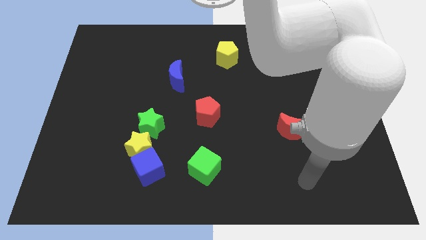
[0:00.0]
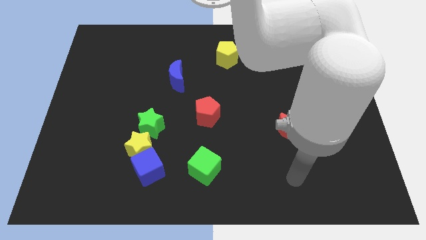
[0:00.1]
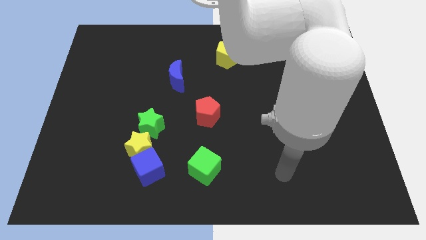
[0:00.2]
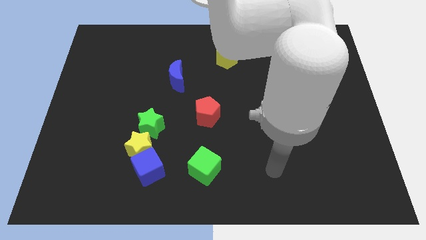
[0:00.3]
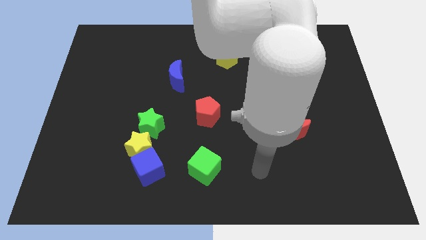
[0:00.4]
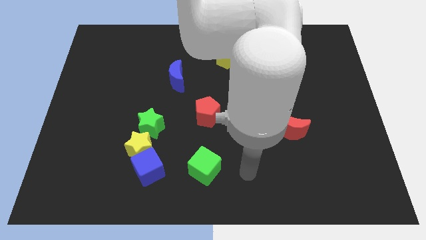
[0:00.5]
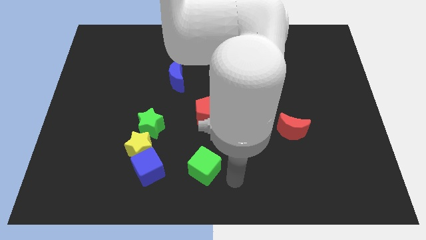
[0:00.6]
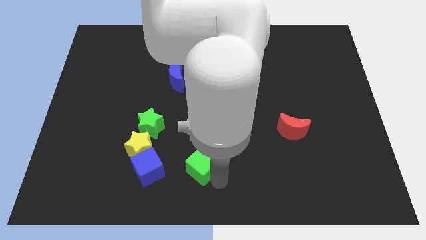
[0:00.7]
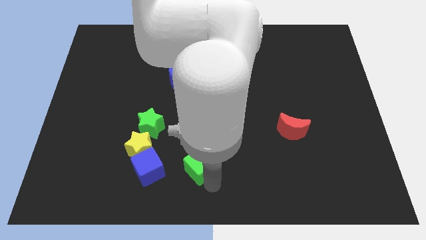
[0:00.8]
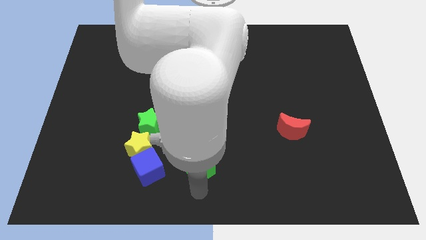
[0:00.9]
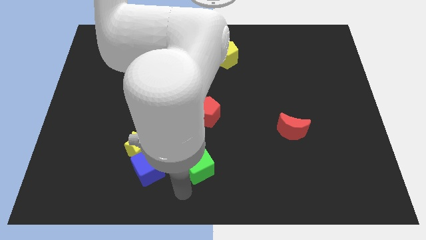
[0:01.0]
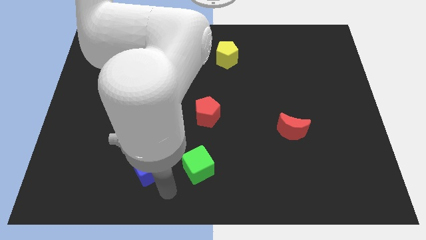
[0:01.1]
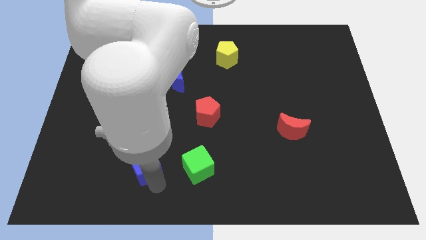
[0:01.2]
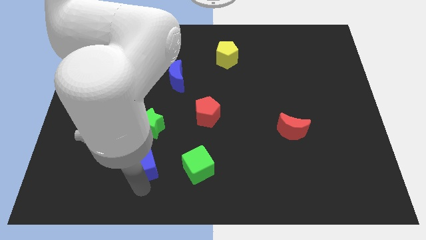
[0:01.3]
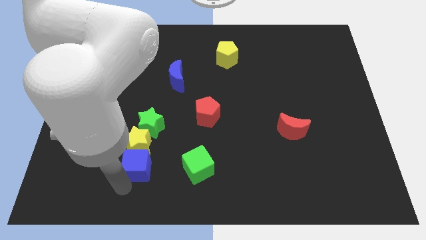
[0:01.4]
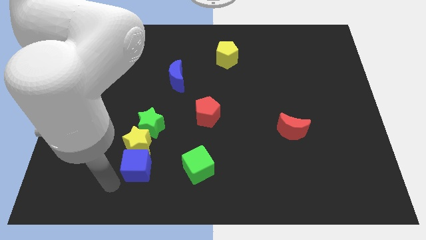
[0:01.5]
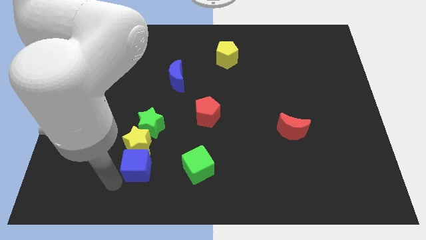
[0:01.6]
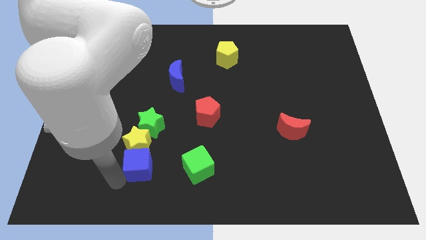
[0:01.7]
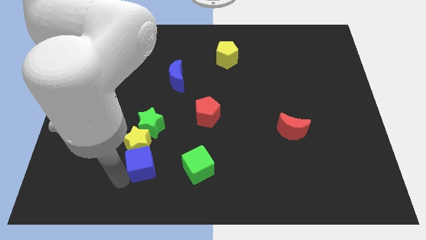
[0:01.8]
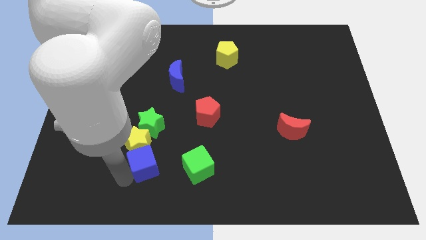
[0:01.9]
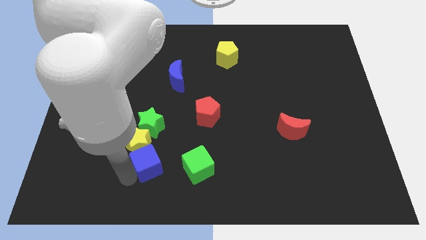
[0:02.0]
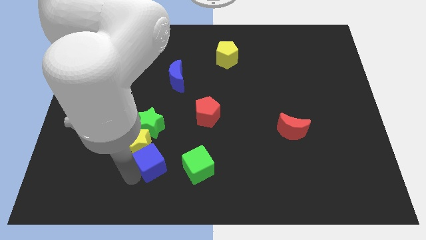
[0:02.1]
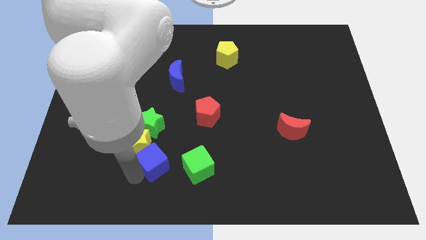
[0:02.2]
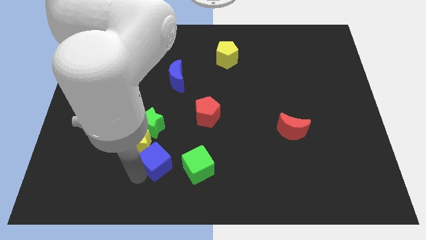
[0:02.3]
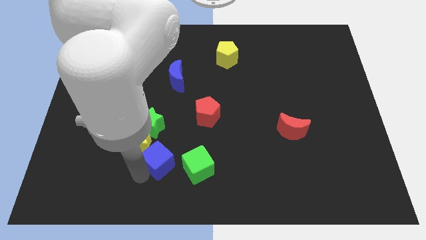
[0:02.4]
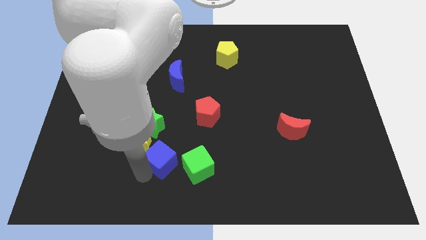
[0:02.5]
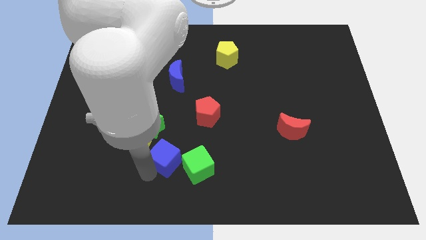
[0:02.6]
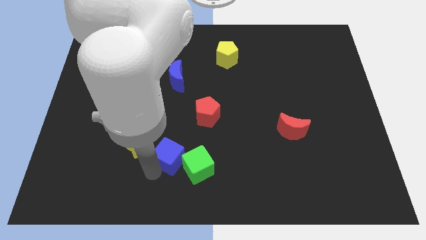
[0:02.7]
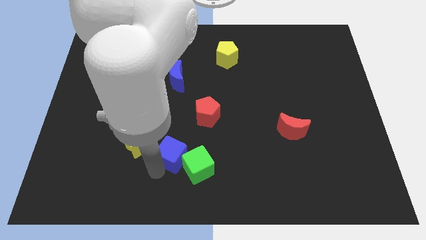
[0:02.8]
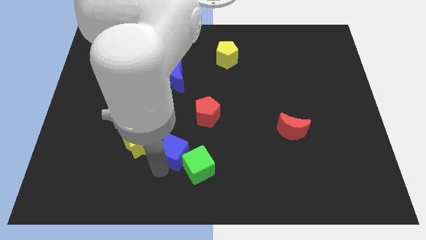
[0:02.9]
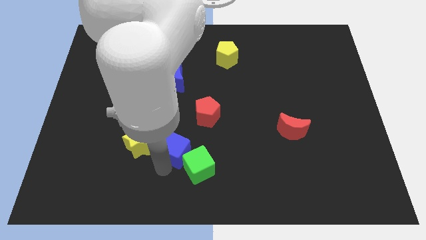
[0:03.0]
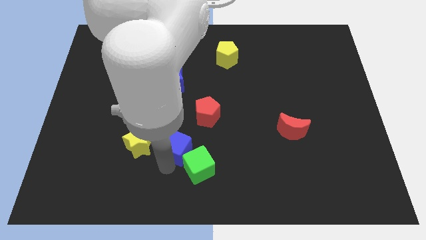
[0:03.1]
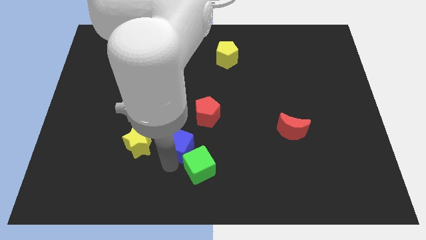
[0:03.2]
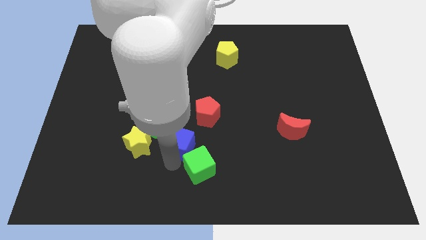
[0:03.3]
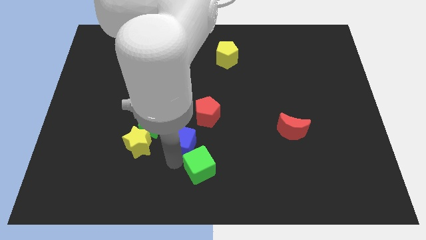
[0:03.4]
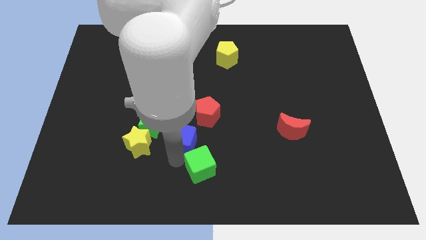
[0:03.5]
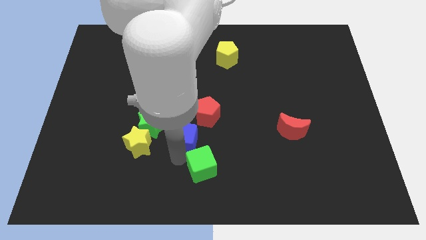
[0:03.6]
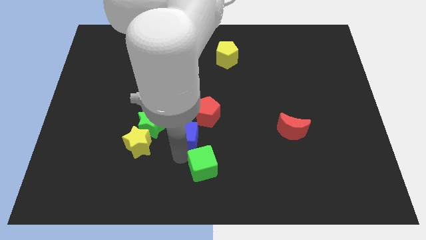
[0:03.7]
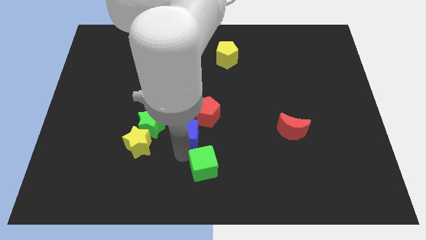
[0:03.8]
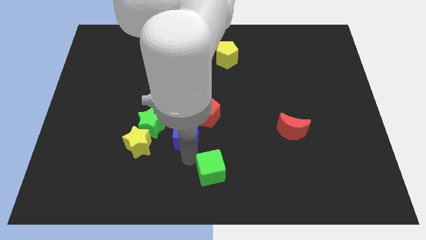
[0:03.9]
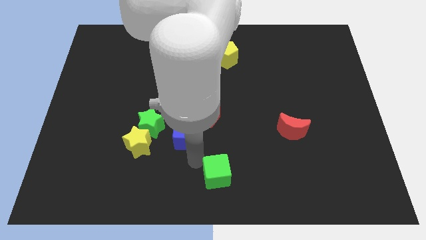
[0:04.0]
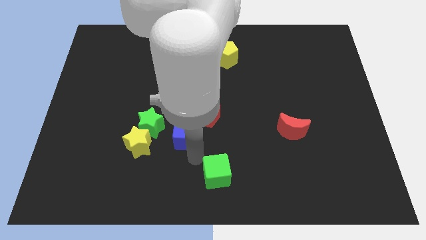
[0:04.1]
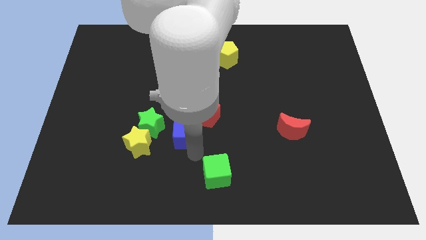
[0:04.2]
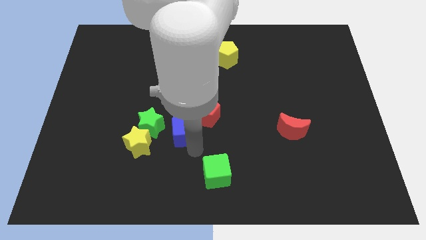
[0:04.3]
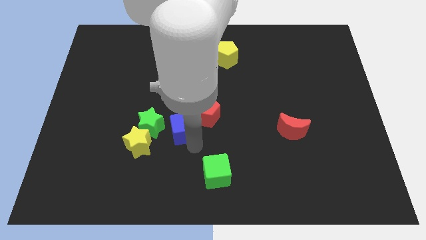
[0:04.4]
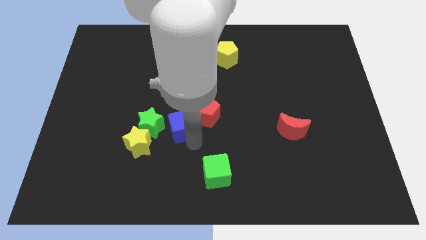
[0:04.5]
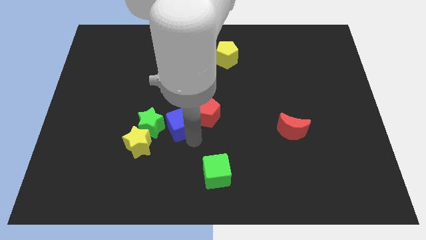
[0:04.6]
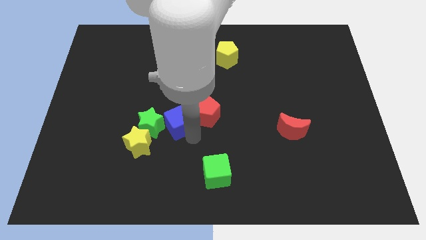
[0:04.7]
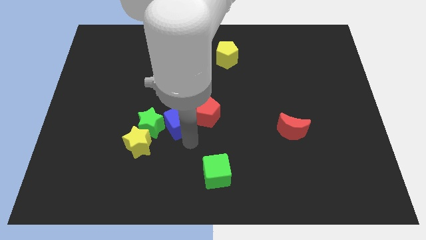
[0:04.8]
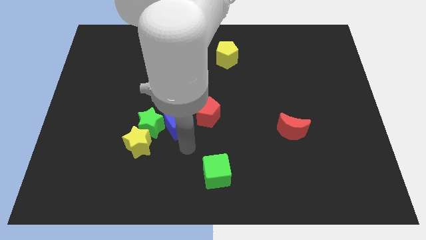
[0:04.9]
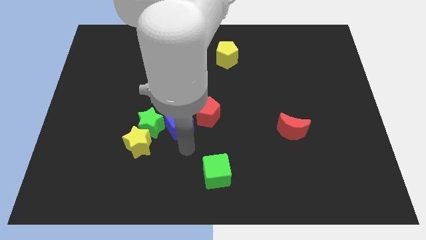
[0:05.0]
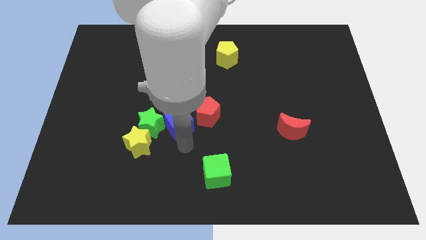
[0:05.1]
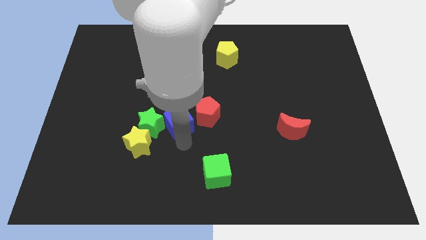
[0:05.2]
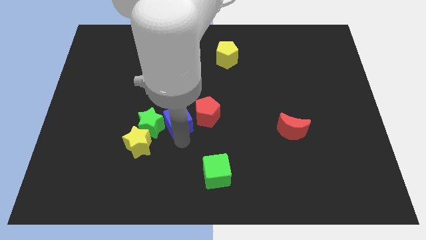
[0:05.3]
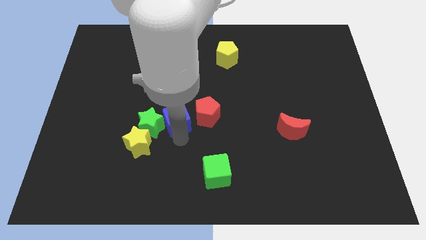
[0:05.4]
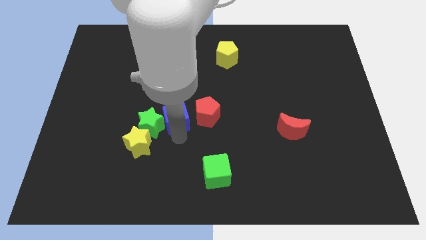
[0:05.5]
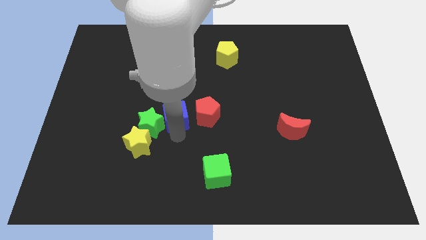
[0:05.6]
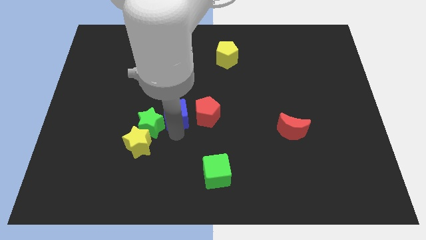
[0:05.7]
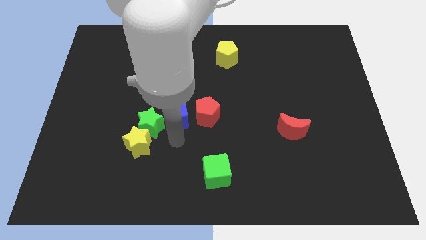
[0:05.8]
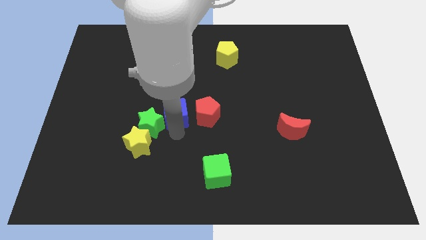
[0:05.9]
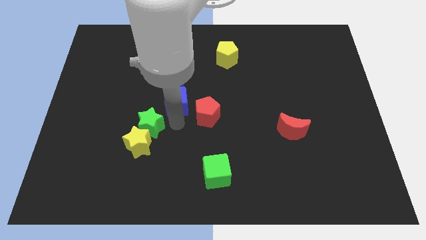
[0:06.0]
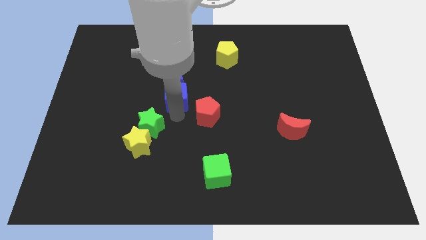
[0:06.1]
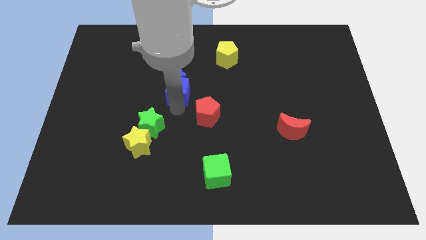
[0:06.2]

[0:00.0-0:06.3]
push the blue cube towards the blue moon
